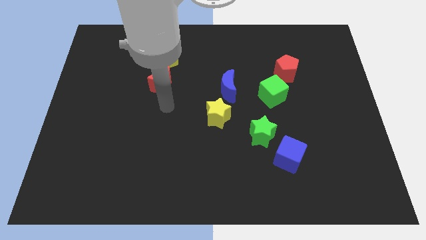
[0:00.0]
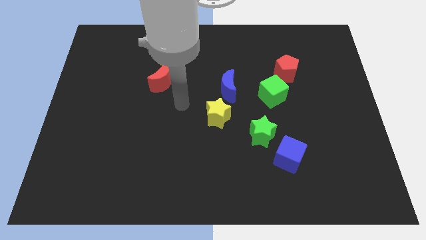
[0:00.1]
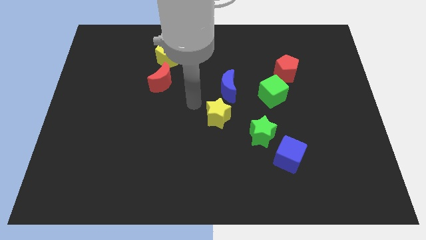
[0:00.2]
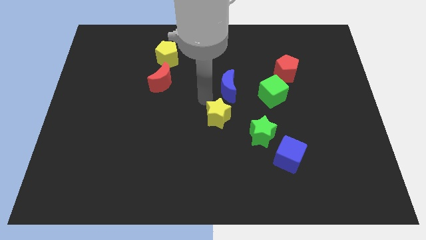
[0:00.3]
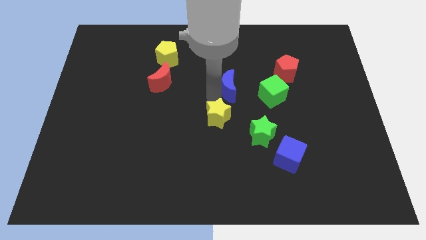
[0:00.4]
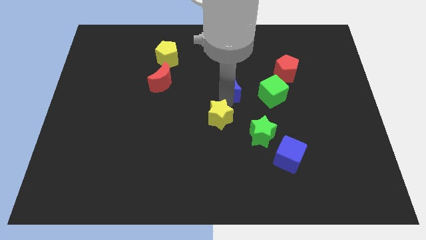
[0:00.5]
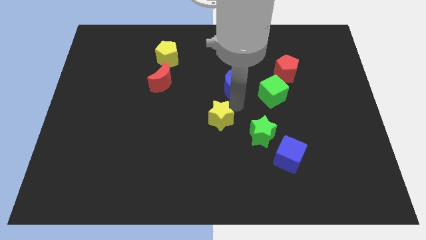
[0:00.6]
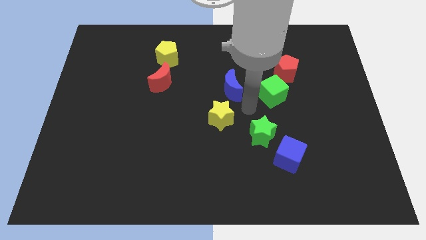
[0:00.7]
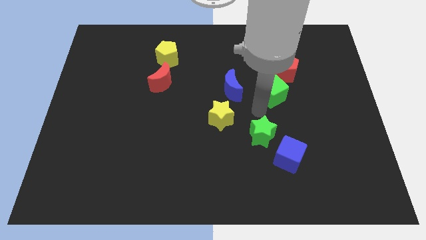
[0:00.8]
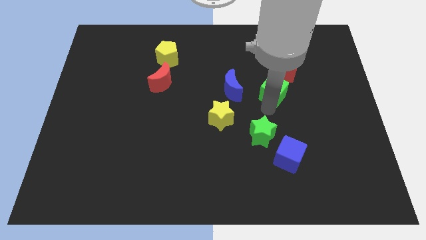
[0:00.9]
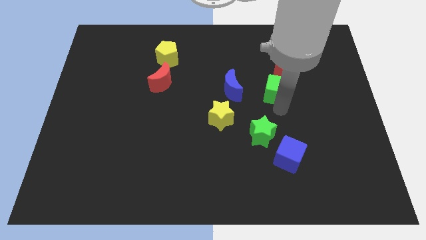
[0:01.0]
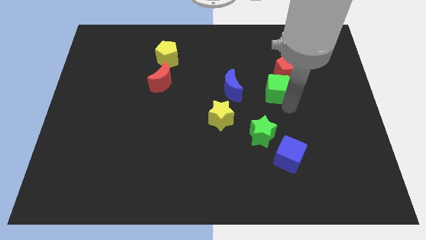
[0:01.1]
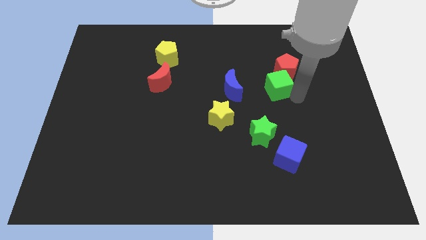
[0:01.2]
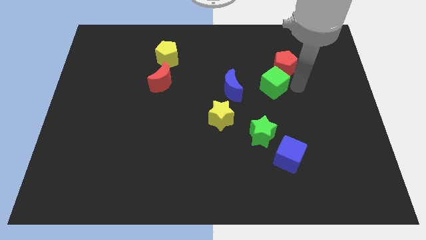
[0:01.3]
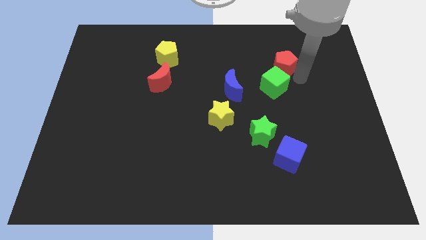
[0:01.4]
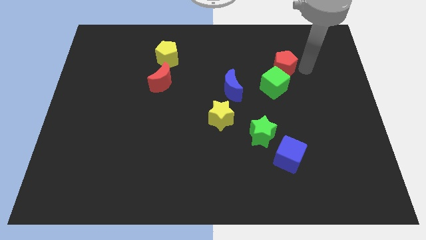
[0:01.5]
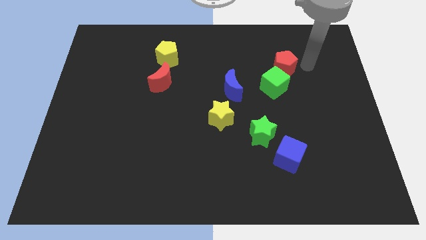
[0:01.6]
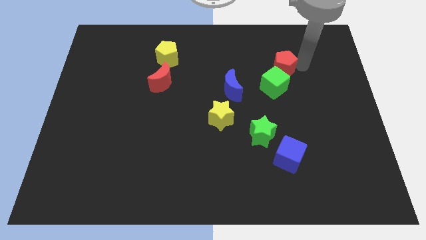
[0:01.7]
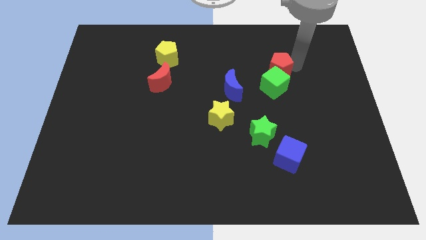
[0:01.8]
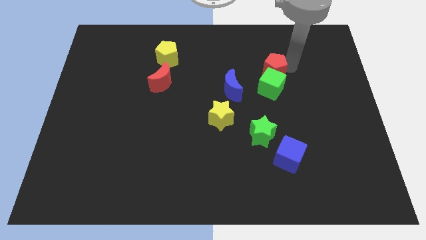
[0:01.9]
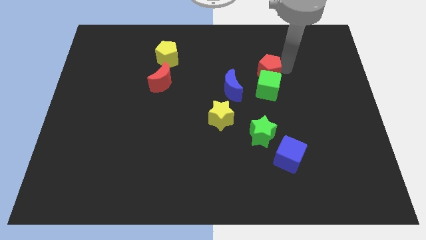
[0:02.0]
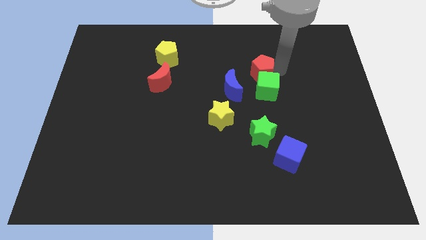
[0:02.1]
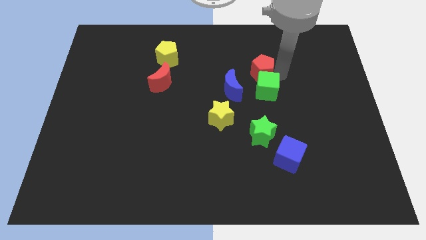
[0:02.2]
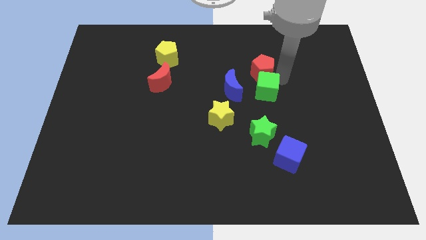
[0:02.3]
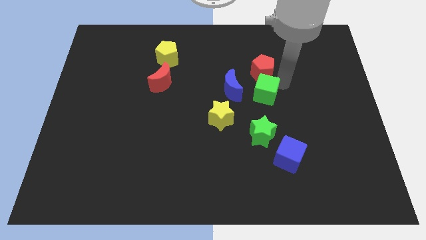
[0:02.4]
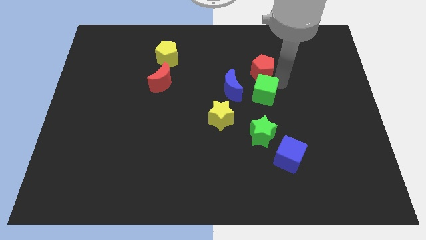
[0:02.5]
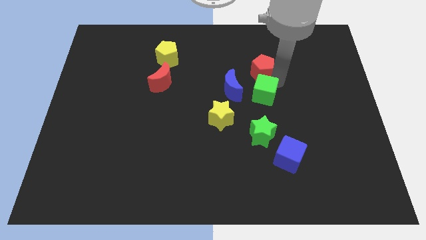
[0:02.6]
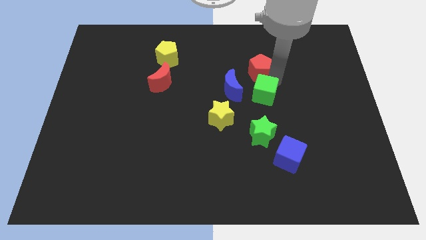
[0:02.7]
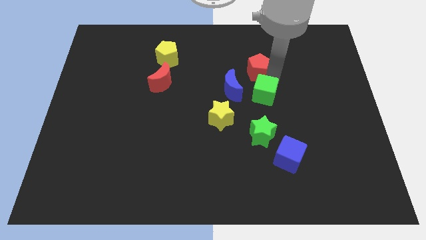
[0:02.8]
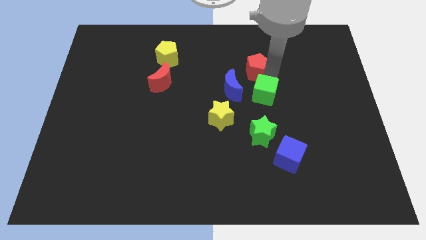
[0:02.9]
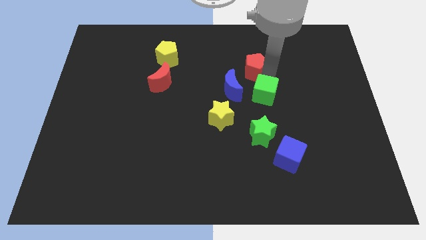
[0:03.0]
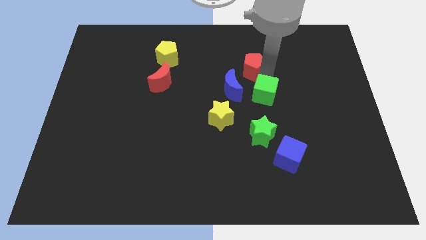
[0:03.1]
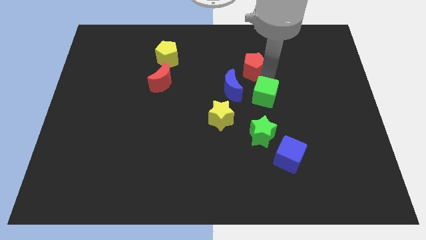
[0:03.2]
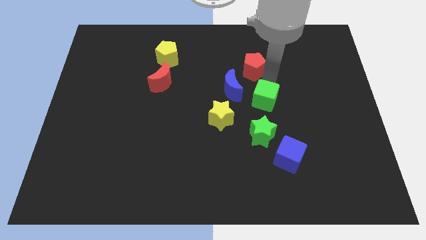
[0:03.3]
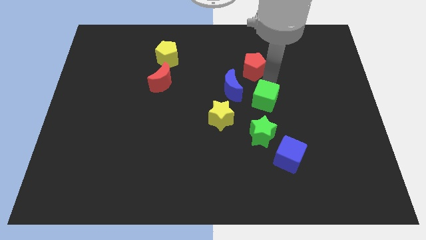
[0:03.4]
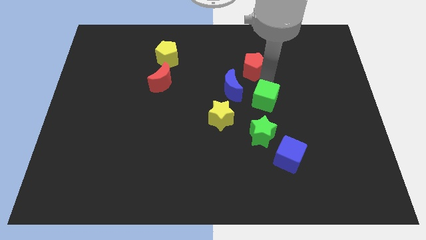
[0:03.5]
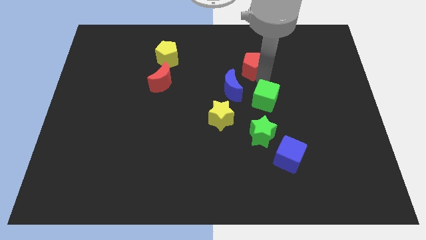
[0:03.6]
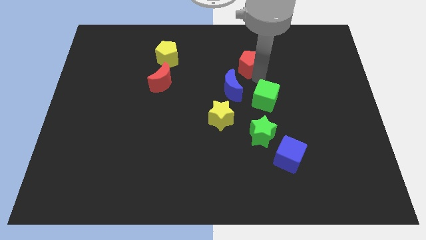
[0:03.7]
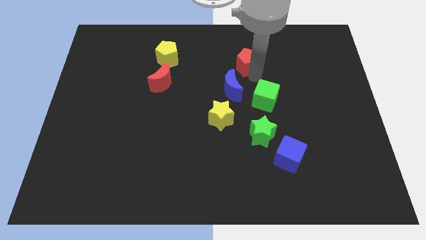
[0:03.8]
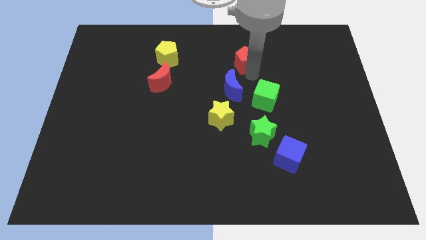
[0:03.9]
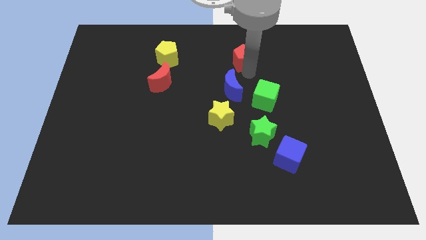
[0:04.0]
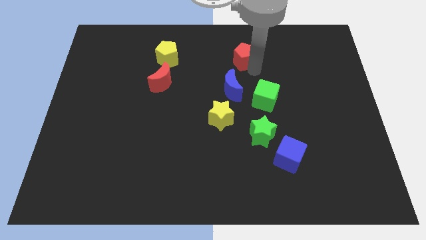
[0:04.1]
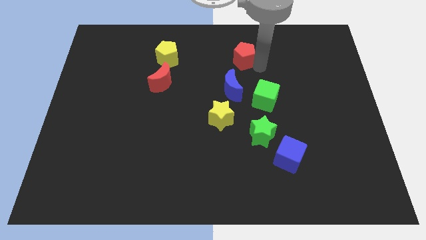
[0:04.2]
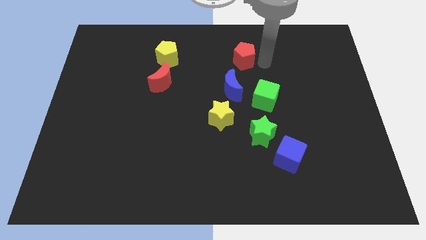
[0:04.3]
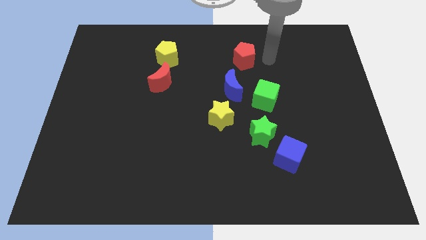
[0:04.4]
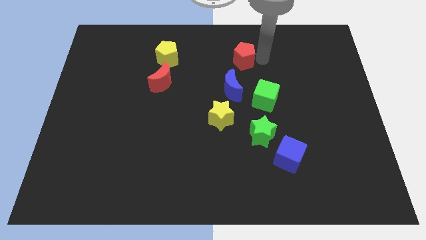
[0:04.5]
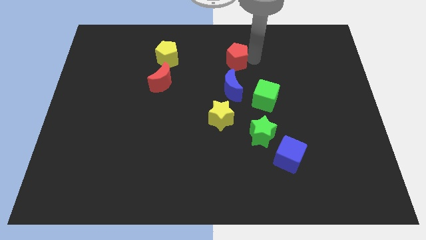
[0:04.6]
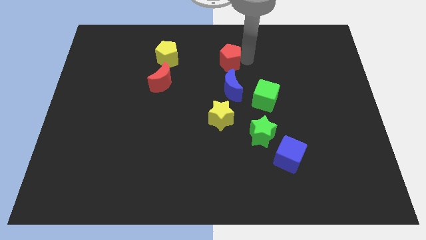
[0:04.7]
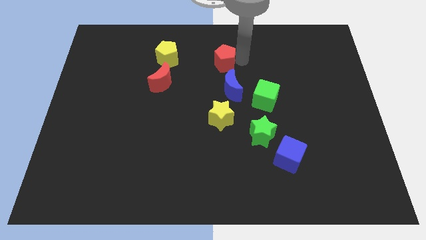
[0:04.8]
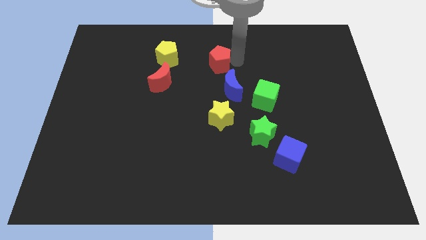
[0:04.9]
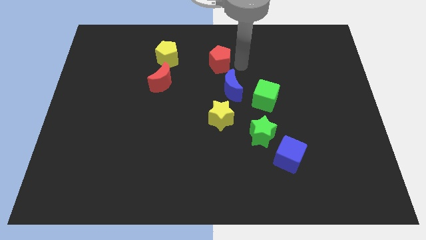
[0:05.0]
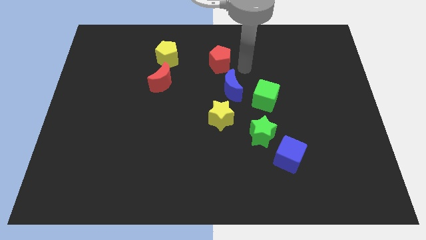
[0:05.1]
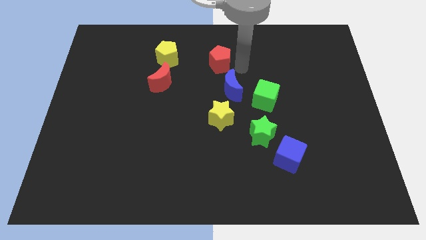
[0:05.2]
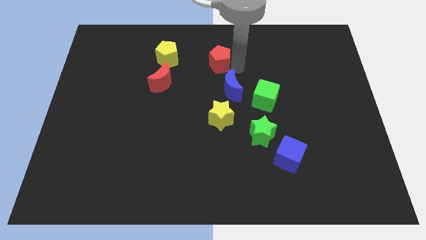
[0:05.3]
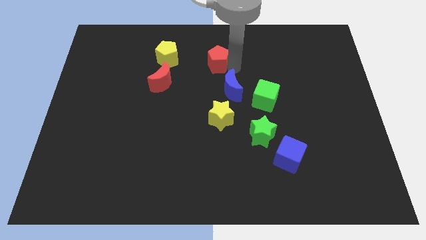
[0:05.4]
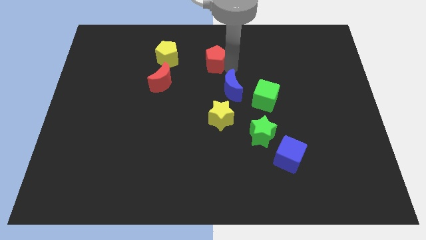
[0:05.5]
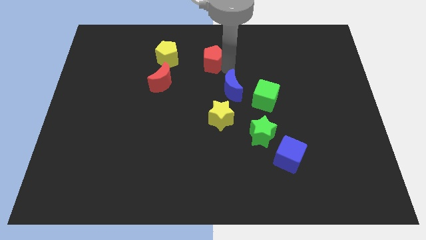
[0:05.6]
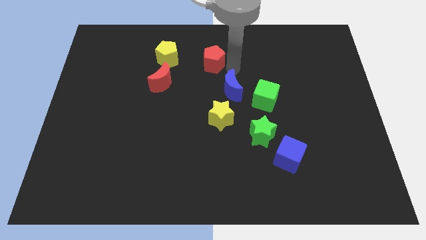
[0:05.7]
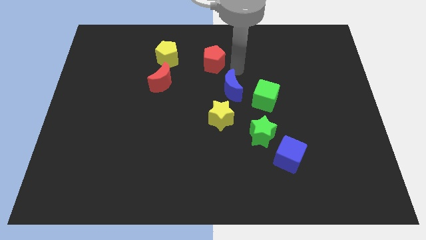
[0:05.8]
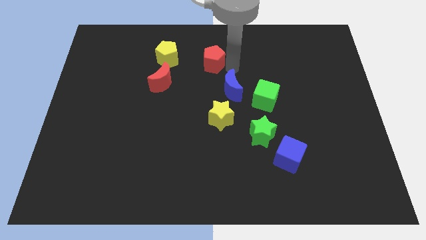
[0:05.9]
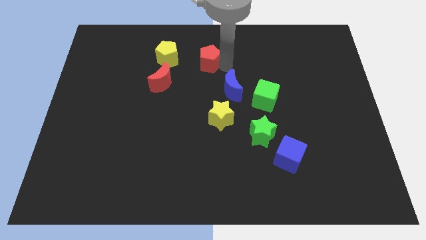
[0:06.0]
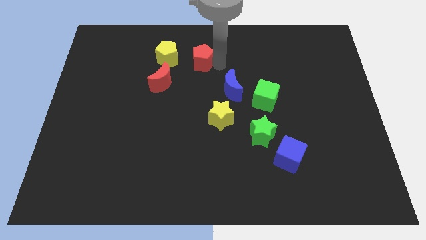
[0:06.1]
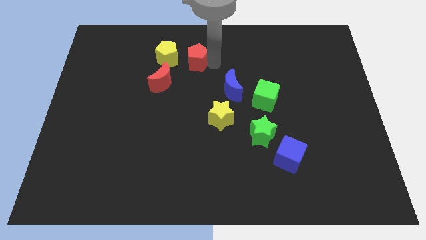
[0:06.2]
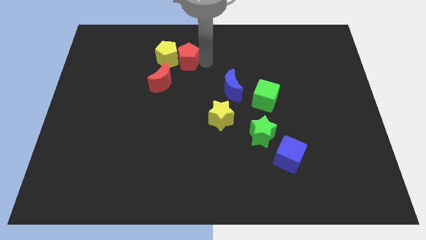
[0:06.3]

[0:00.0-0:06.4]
slide the red pentagon close to the yellow pentagon

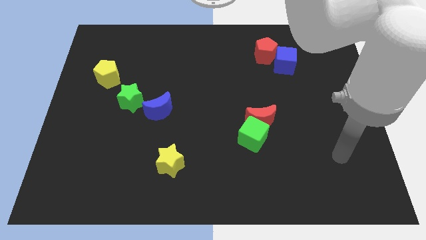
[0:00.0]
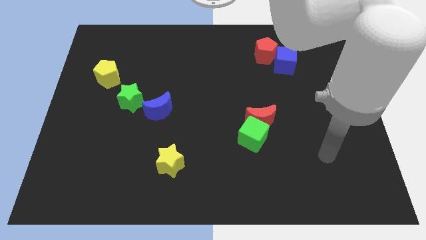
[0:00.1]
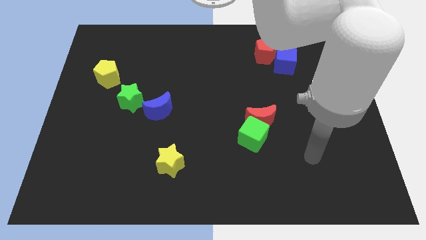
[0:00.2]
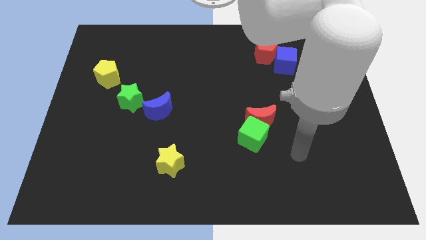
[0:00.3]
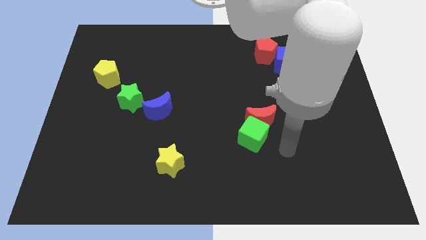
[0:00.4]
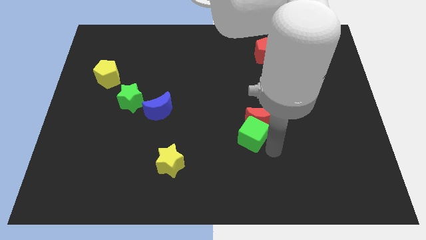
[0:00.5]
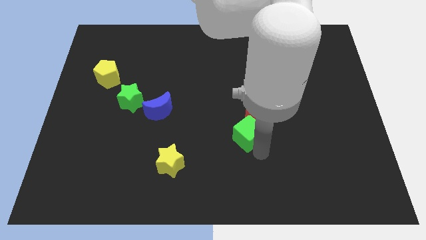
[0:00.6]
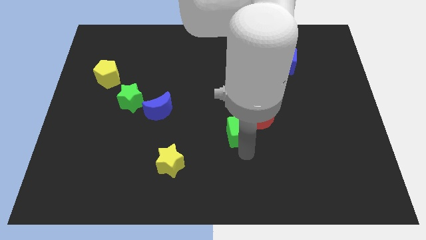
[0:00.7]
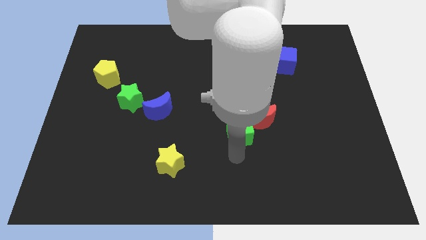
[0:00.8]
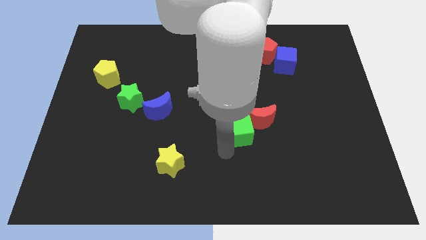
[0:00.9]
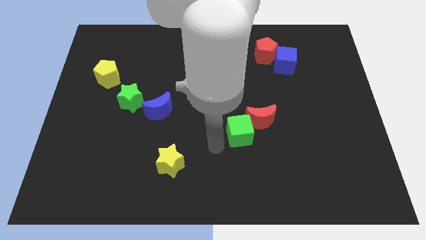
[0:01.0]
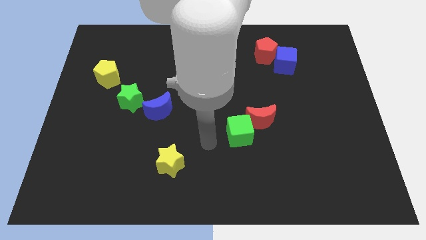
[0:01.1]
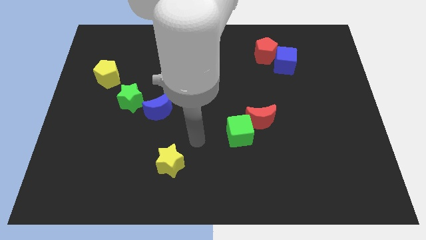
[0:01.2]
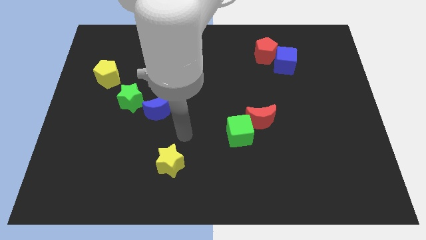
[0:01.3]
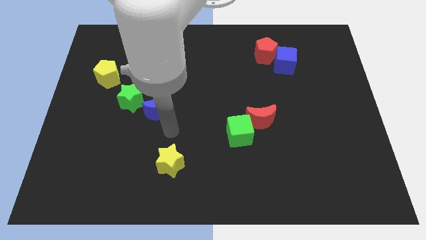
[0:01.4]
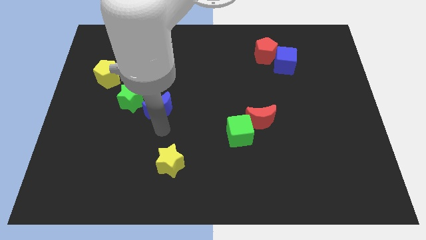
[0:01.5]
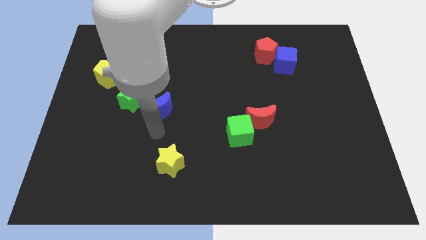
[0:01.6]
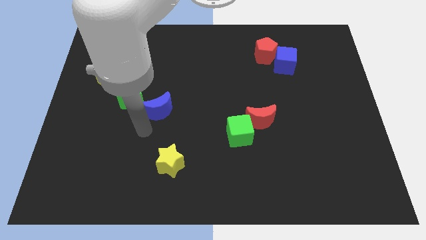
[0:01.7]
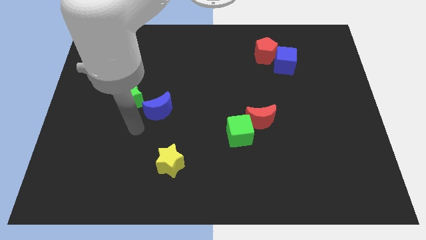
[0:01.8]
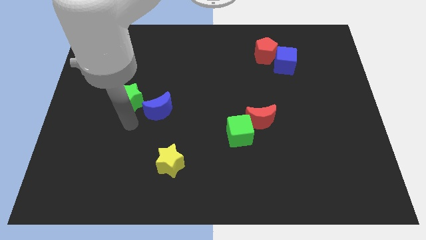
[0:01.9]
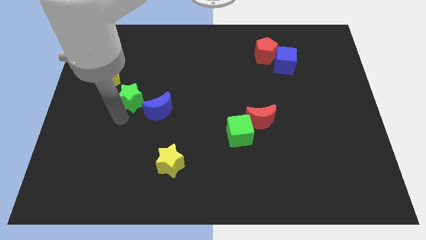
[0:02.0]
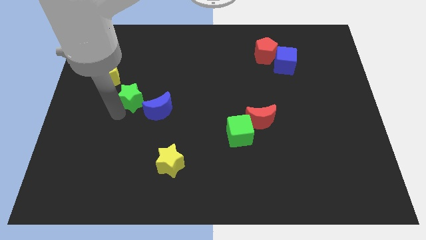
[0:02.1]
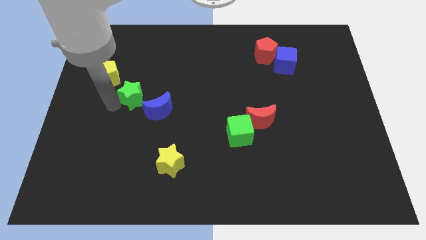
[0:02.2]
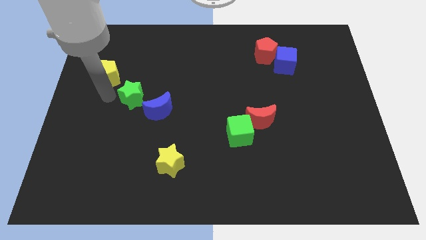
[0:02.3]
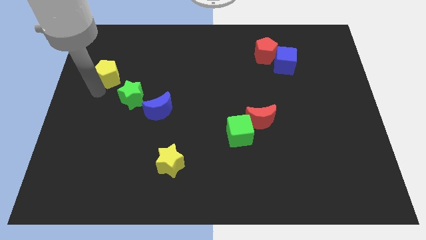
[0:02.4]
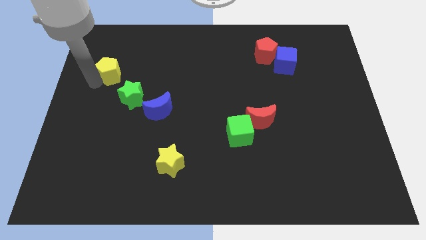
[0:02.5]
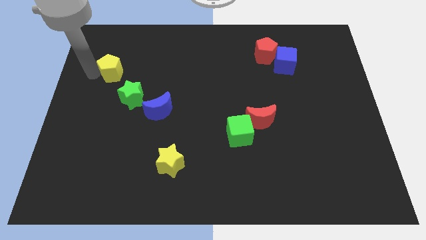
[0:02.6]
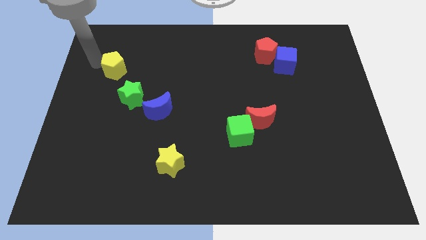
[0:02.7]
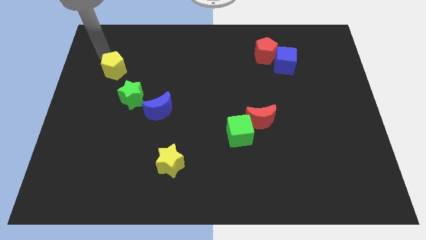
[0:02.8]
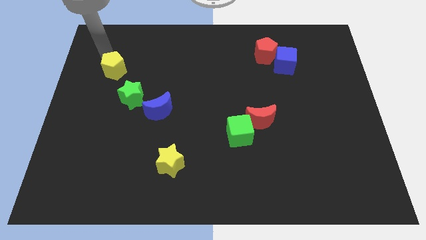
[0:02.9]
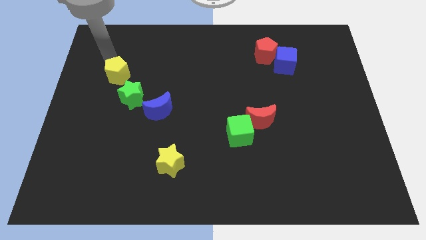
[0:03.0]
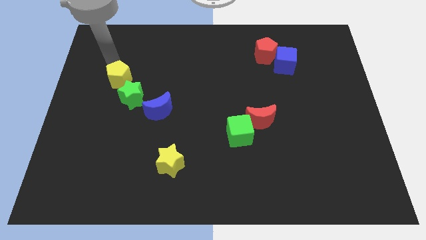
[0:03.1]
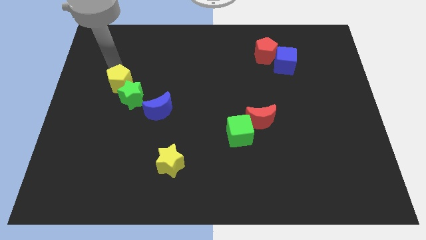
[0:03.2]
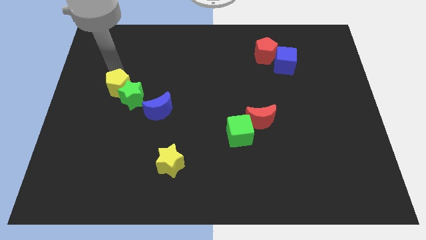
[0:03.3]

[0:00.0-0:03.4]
move the yellow pentagon towards the green star
